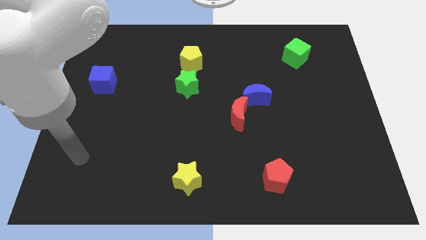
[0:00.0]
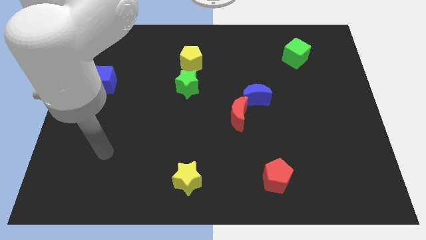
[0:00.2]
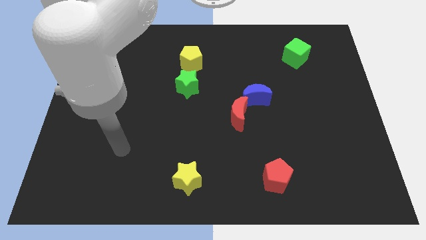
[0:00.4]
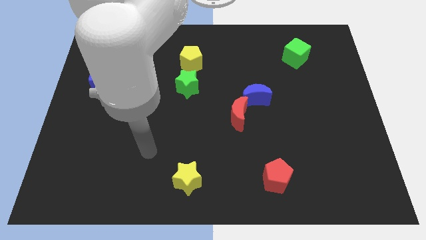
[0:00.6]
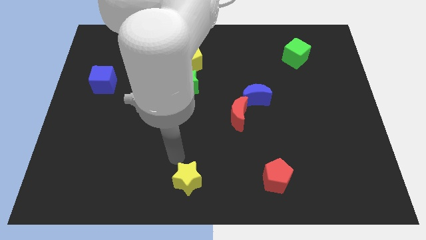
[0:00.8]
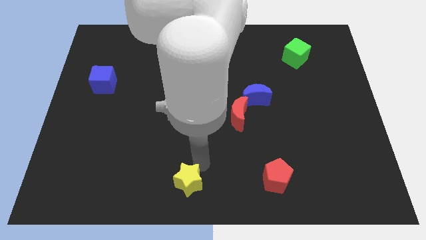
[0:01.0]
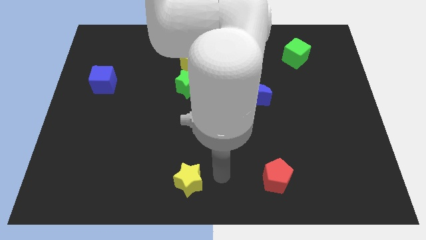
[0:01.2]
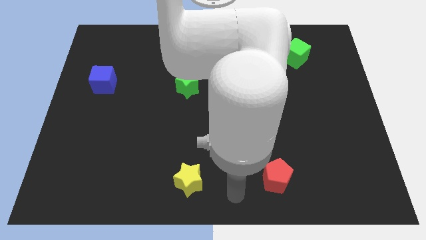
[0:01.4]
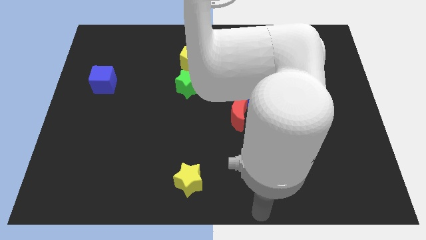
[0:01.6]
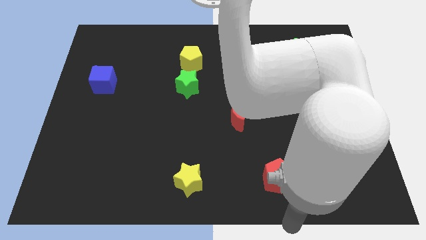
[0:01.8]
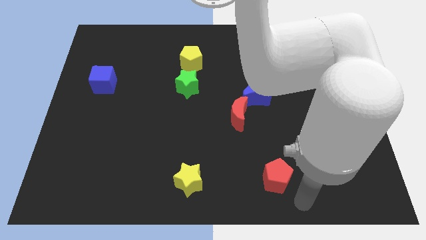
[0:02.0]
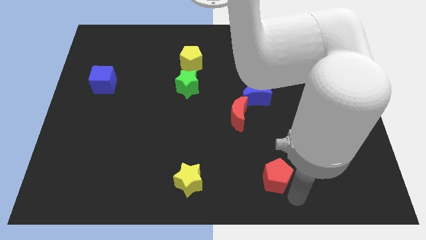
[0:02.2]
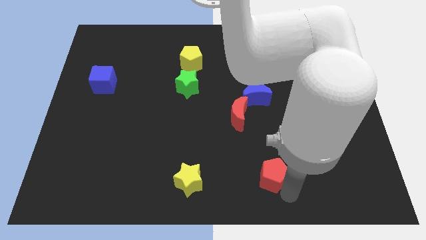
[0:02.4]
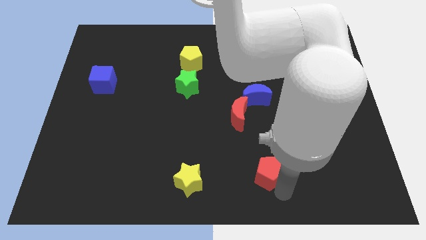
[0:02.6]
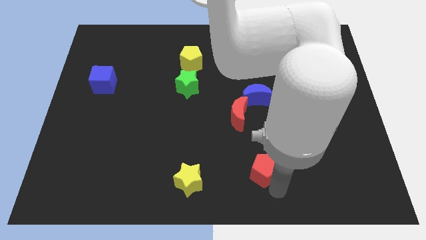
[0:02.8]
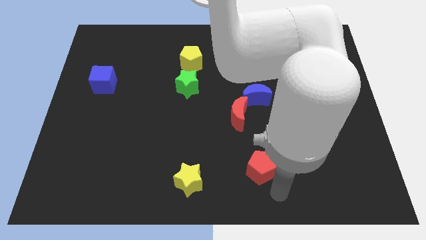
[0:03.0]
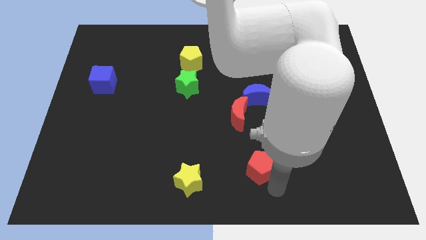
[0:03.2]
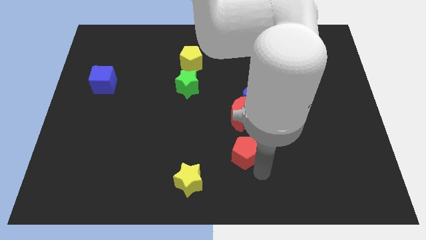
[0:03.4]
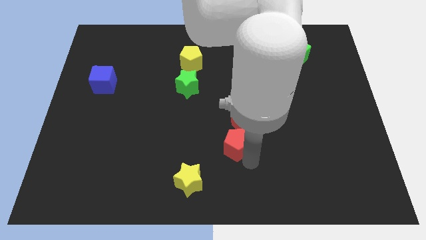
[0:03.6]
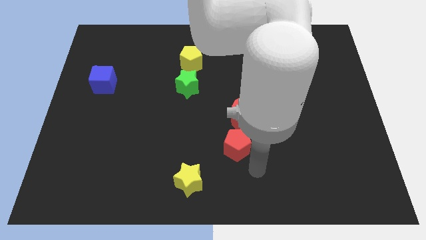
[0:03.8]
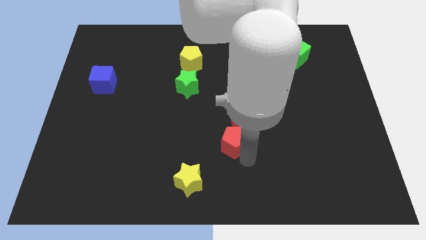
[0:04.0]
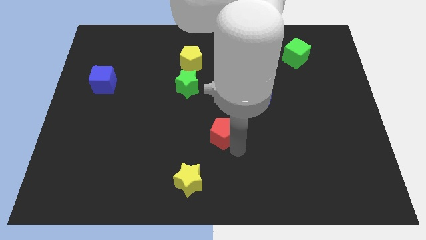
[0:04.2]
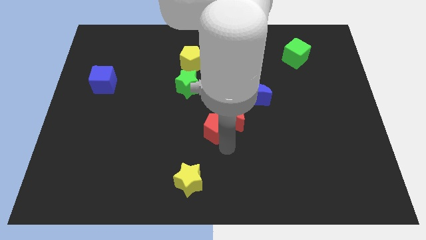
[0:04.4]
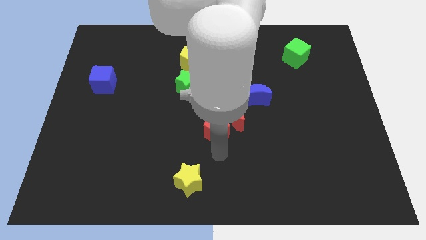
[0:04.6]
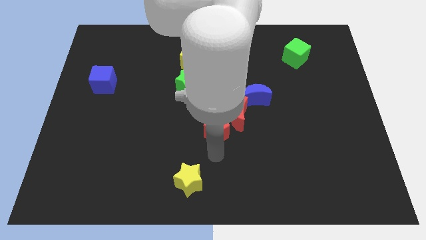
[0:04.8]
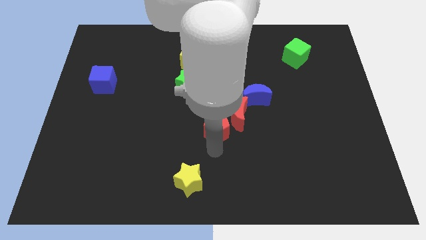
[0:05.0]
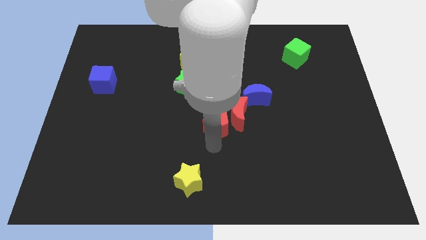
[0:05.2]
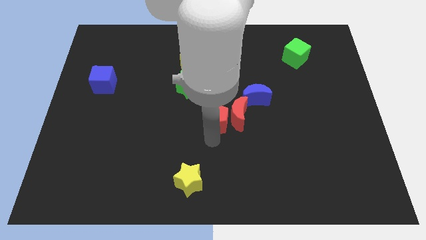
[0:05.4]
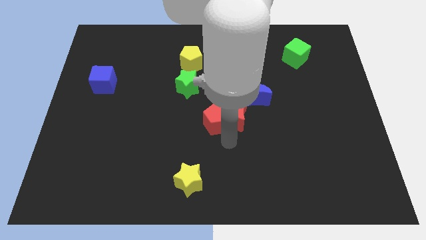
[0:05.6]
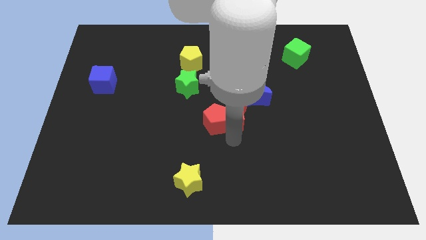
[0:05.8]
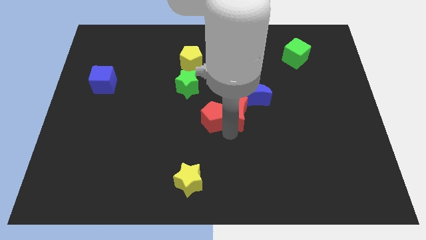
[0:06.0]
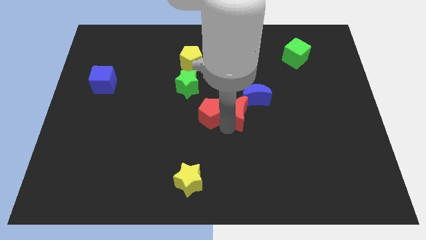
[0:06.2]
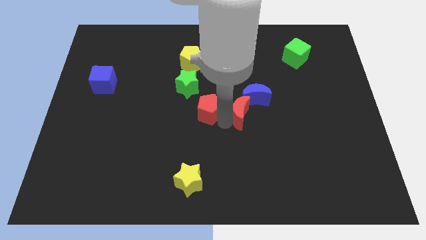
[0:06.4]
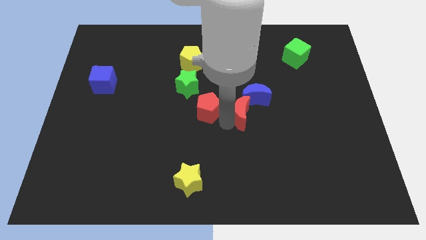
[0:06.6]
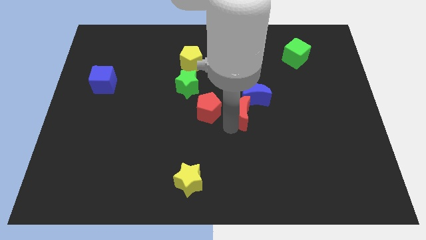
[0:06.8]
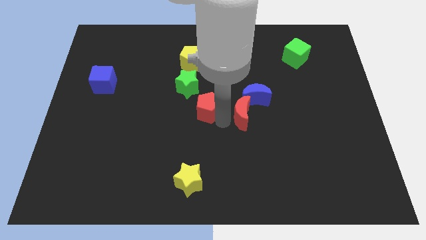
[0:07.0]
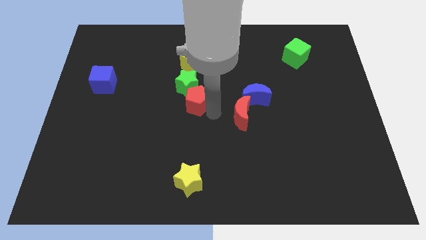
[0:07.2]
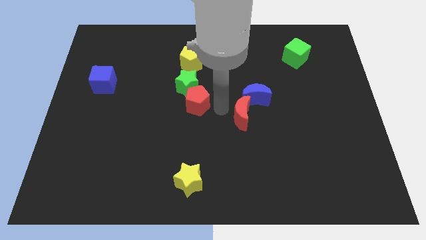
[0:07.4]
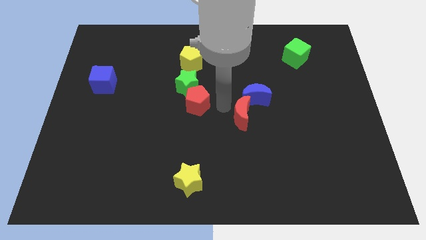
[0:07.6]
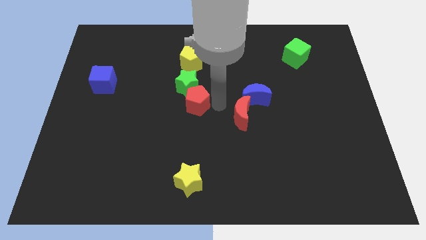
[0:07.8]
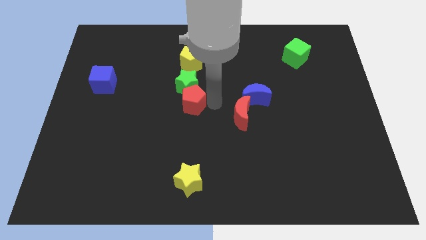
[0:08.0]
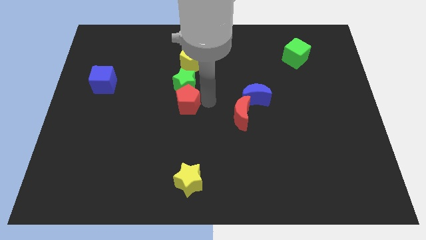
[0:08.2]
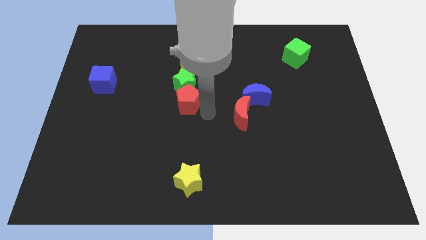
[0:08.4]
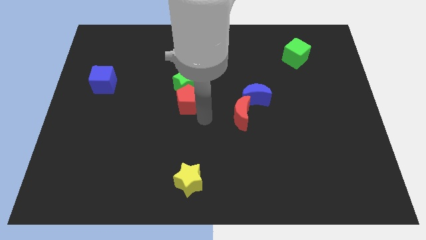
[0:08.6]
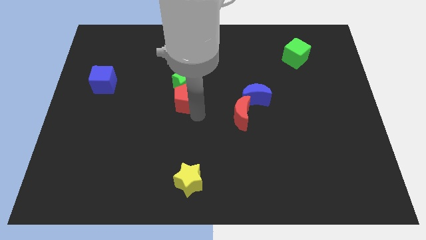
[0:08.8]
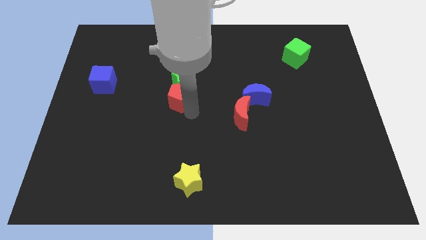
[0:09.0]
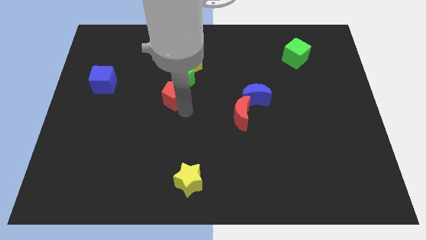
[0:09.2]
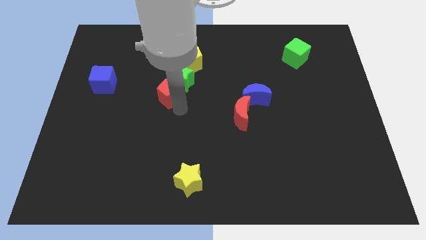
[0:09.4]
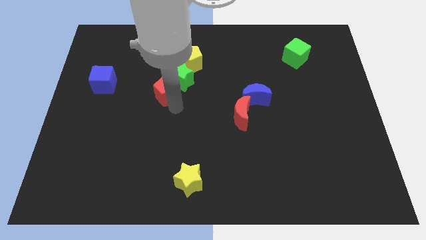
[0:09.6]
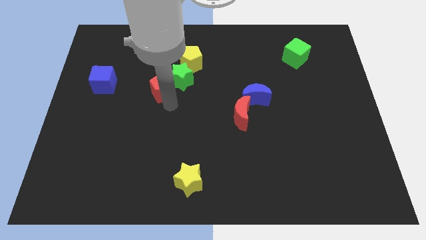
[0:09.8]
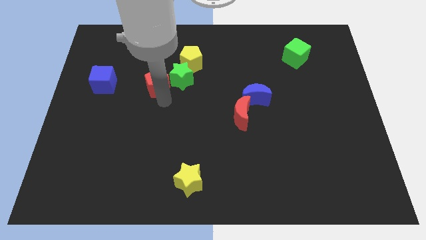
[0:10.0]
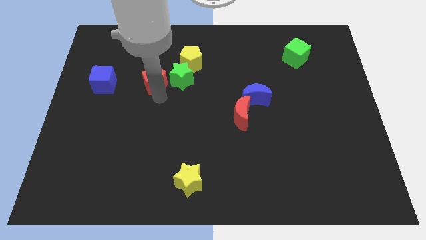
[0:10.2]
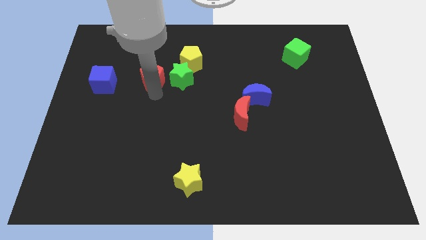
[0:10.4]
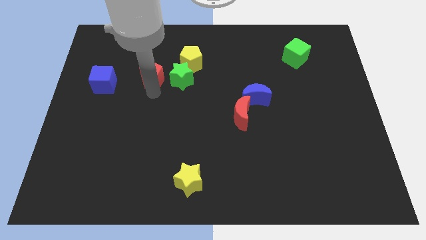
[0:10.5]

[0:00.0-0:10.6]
push the red pentagon to the top left side of the green star

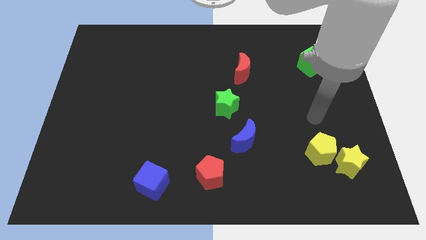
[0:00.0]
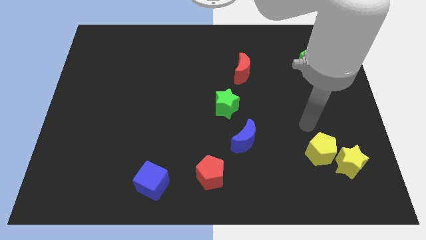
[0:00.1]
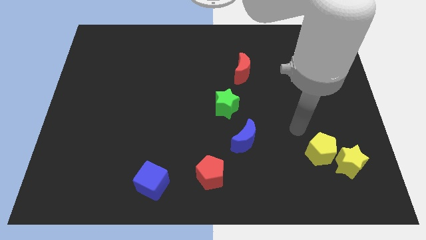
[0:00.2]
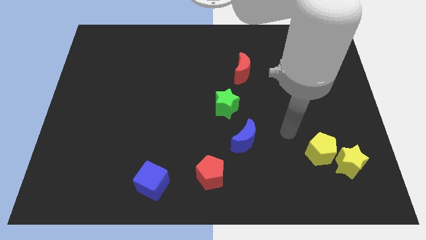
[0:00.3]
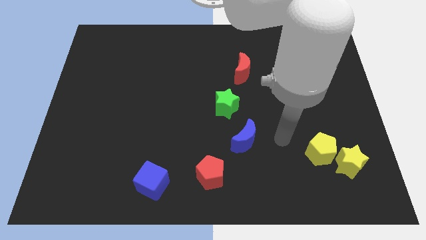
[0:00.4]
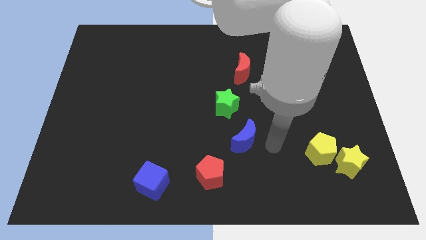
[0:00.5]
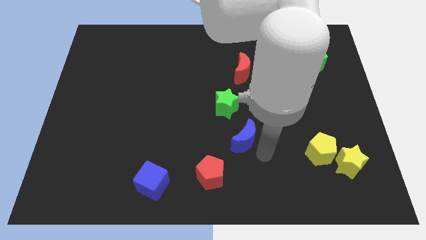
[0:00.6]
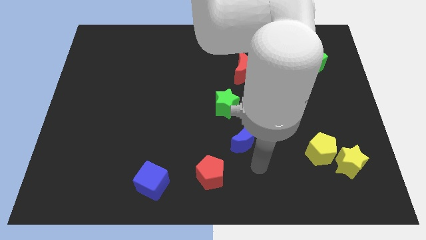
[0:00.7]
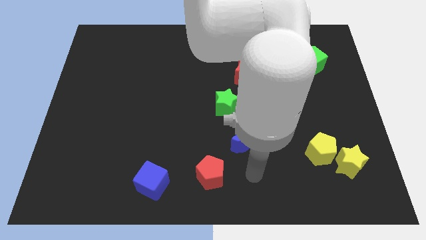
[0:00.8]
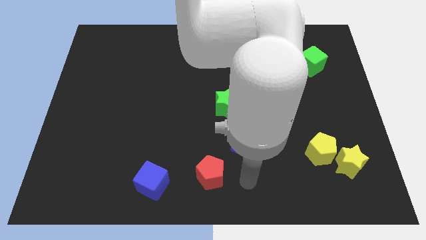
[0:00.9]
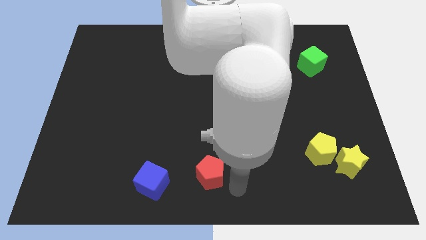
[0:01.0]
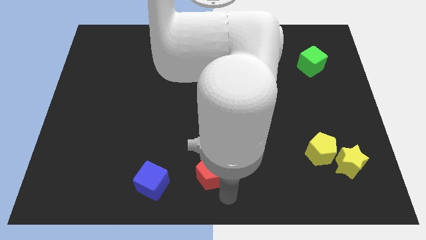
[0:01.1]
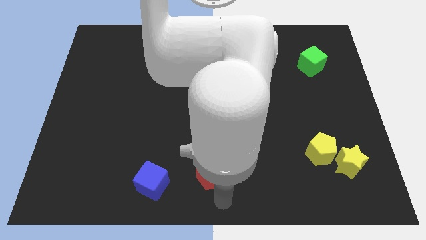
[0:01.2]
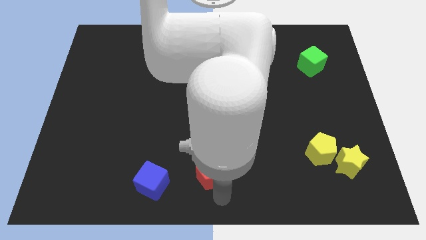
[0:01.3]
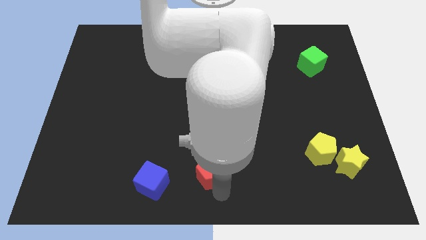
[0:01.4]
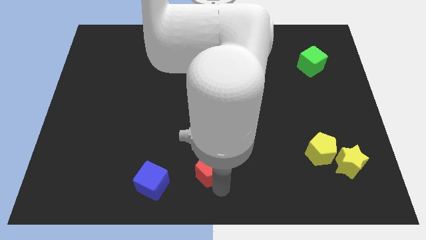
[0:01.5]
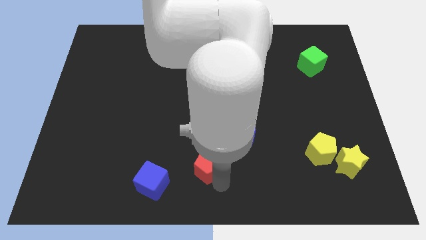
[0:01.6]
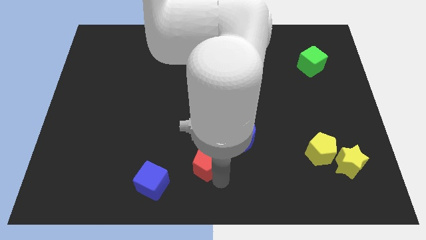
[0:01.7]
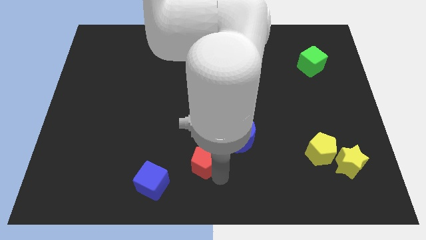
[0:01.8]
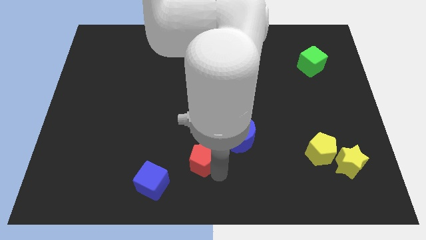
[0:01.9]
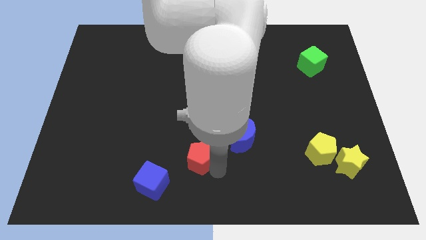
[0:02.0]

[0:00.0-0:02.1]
put the red pentagon just left of the blue moon
